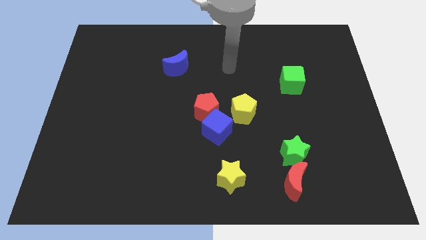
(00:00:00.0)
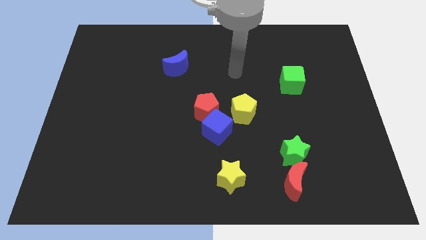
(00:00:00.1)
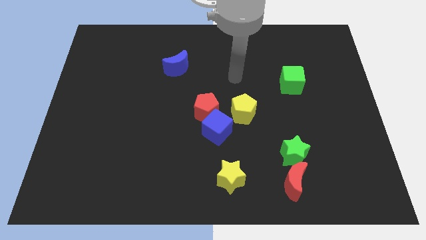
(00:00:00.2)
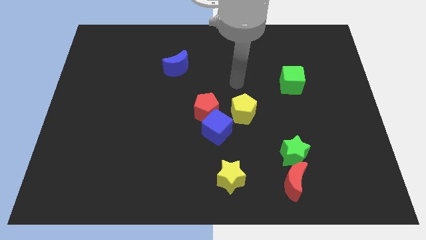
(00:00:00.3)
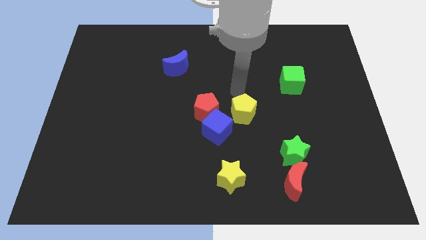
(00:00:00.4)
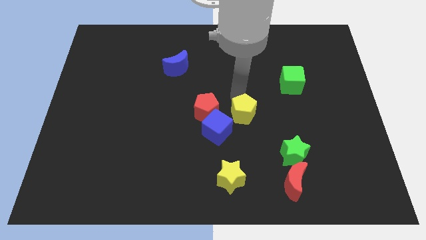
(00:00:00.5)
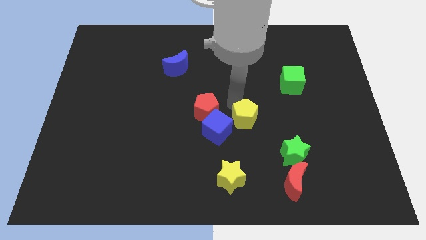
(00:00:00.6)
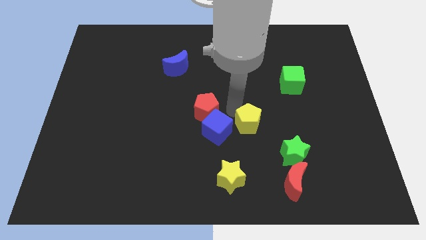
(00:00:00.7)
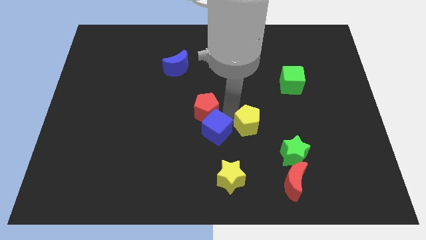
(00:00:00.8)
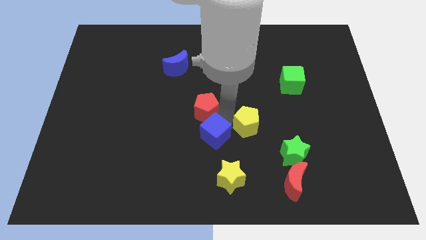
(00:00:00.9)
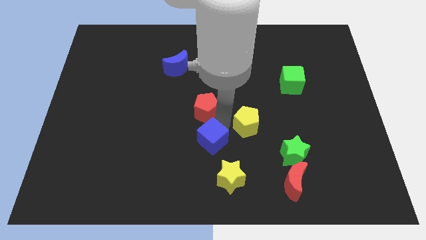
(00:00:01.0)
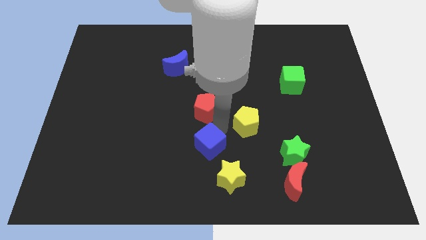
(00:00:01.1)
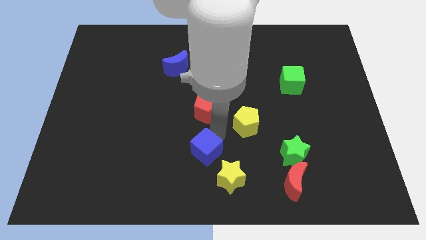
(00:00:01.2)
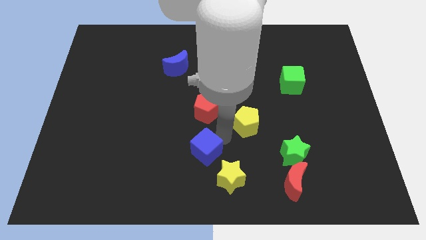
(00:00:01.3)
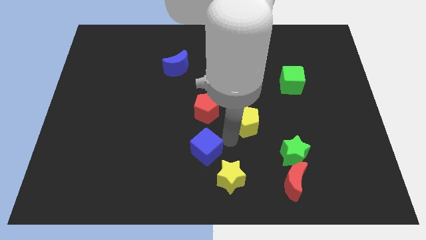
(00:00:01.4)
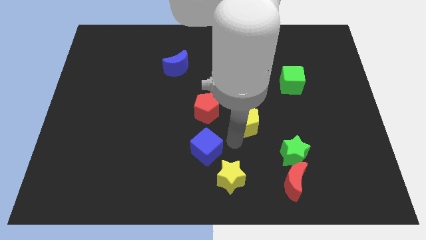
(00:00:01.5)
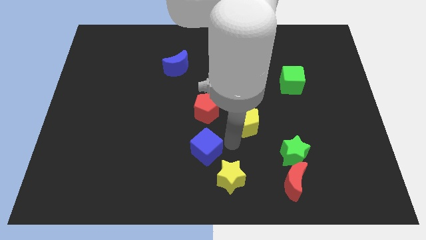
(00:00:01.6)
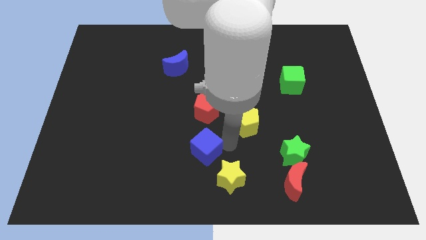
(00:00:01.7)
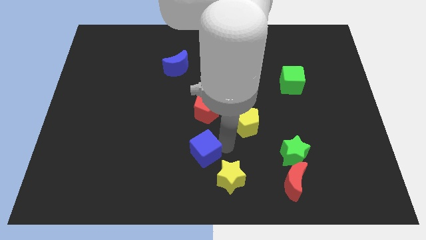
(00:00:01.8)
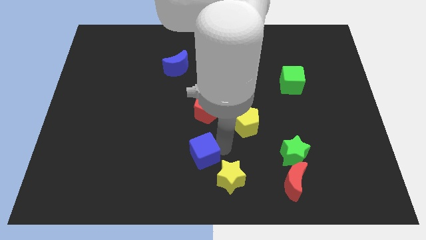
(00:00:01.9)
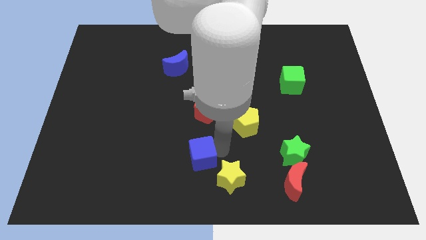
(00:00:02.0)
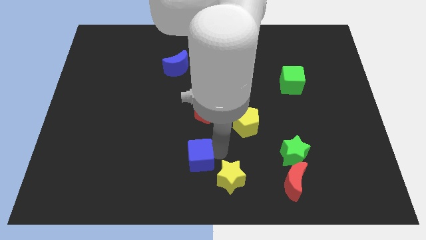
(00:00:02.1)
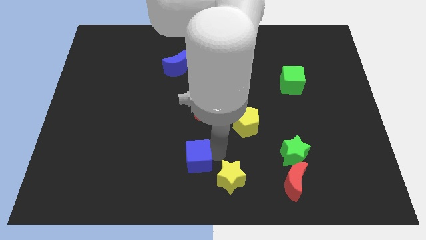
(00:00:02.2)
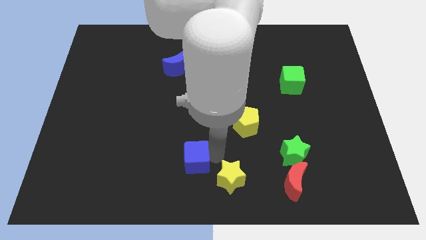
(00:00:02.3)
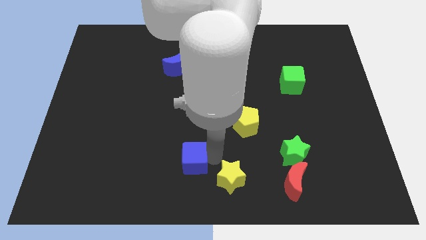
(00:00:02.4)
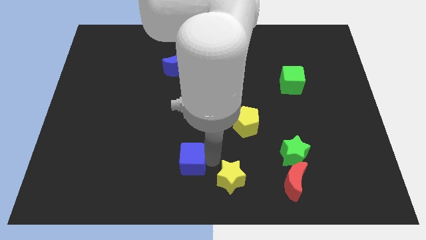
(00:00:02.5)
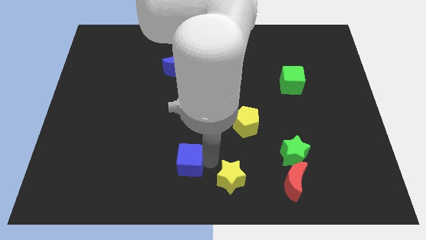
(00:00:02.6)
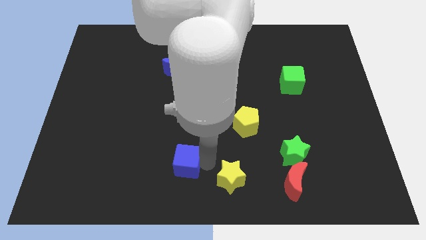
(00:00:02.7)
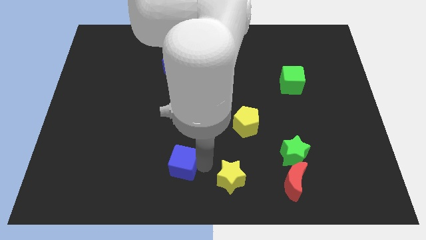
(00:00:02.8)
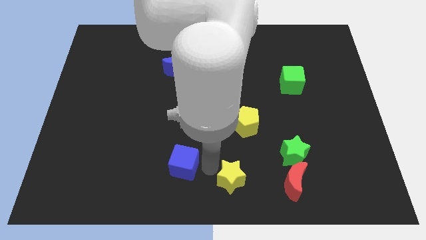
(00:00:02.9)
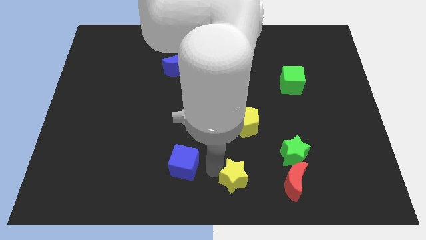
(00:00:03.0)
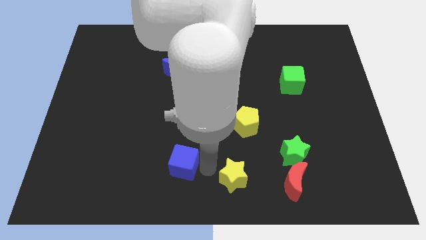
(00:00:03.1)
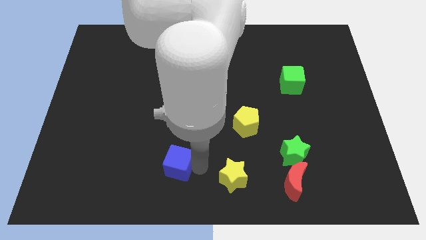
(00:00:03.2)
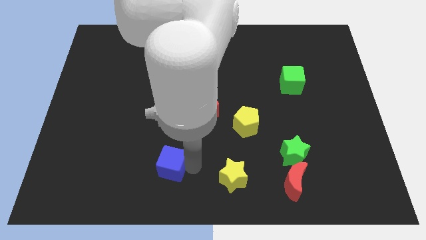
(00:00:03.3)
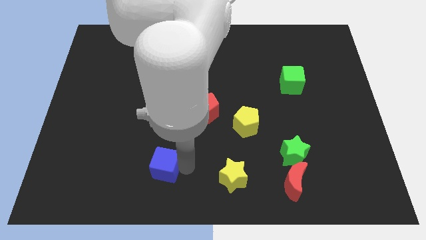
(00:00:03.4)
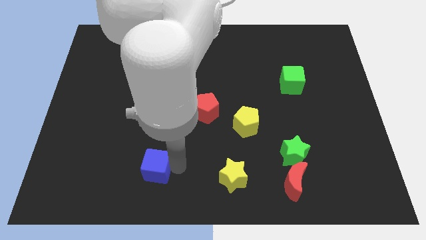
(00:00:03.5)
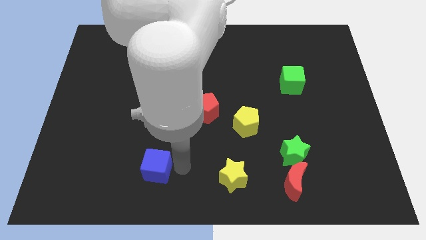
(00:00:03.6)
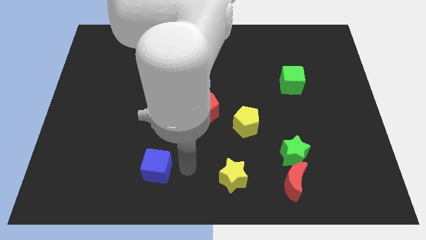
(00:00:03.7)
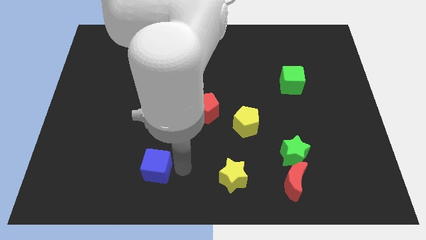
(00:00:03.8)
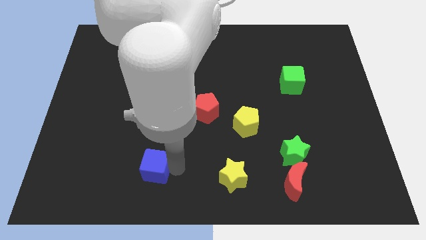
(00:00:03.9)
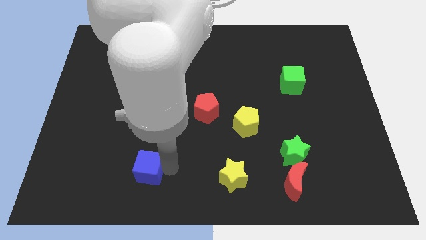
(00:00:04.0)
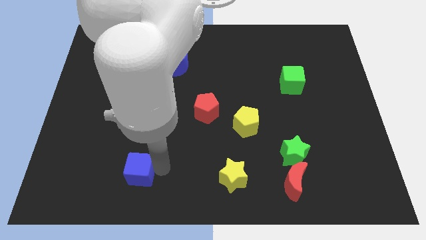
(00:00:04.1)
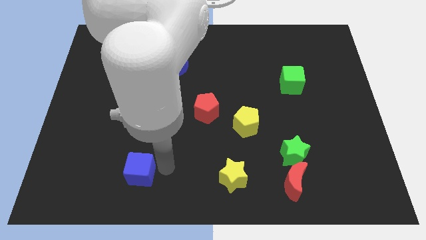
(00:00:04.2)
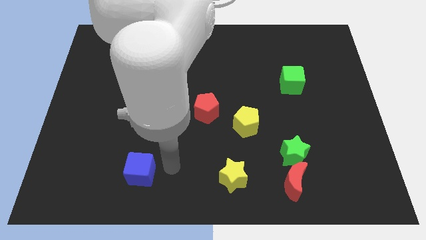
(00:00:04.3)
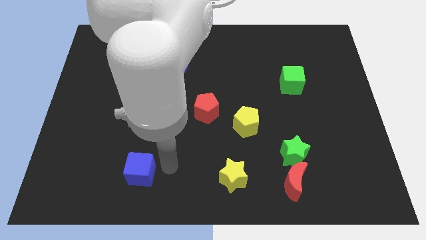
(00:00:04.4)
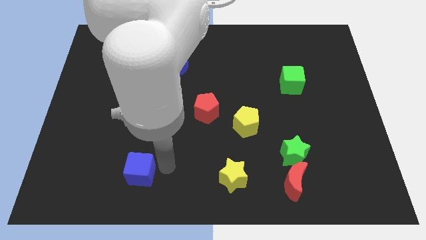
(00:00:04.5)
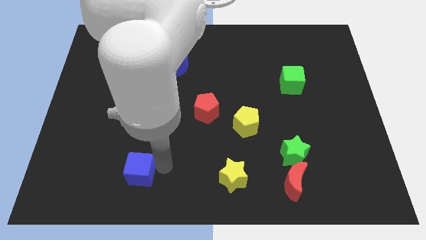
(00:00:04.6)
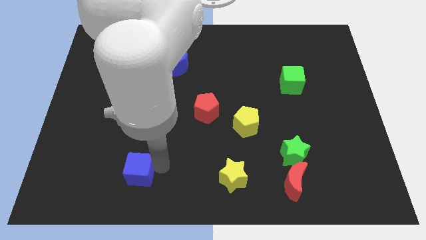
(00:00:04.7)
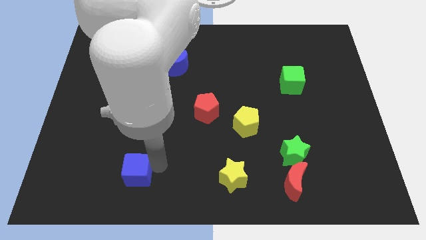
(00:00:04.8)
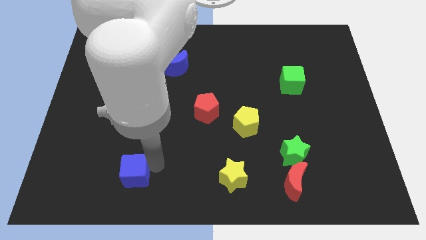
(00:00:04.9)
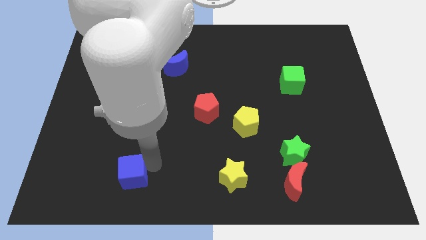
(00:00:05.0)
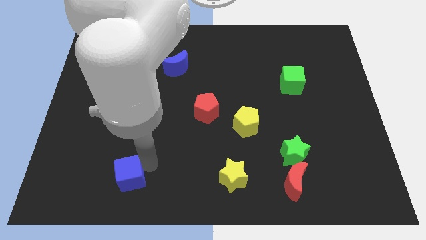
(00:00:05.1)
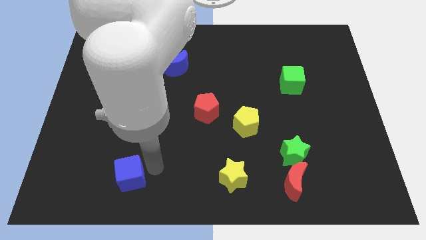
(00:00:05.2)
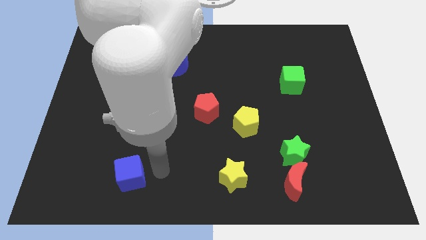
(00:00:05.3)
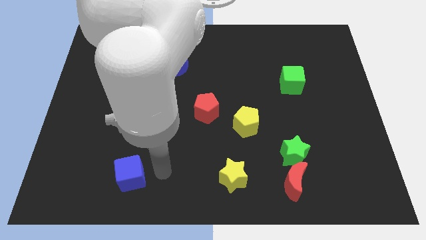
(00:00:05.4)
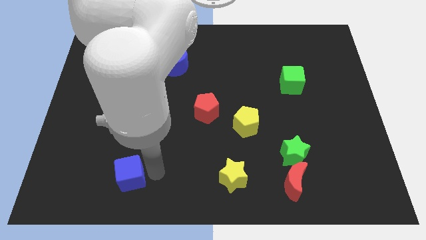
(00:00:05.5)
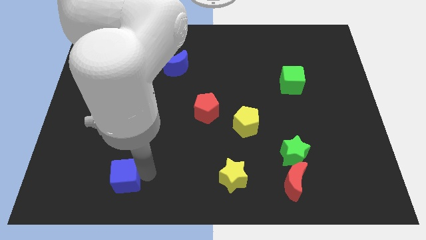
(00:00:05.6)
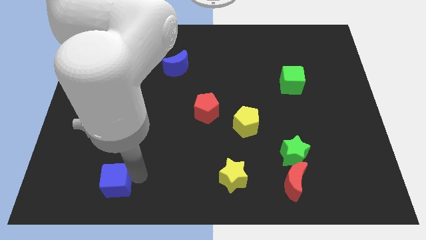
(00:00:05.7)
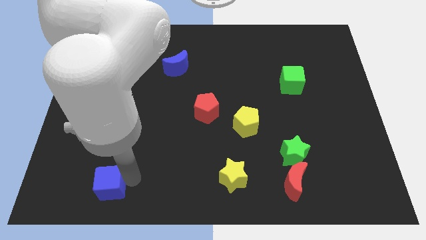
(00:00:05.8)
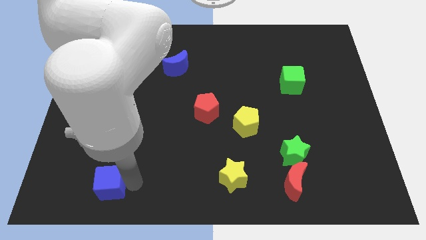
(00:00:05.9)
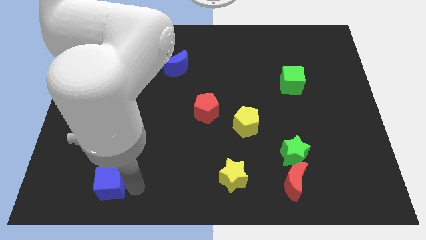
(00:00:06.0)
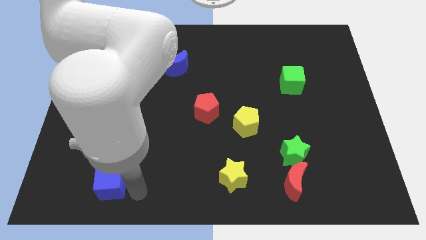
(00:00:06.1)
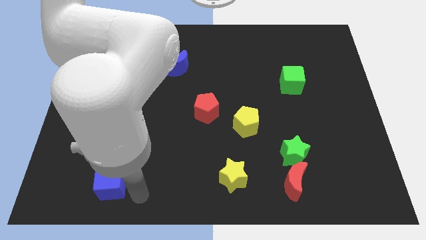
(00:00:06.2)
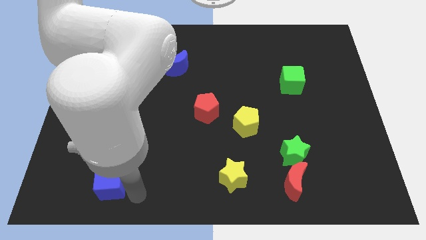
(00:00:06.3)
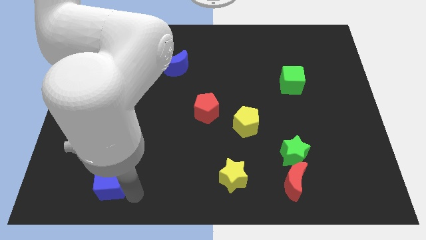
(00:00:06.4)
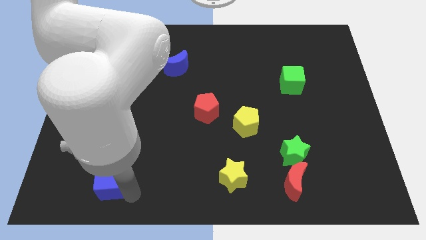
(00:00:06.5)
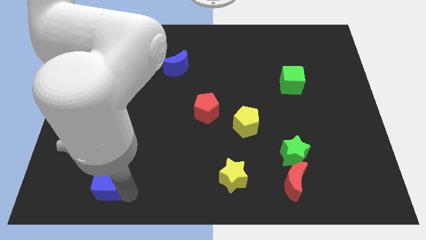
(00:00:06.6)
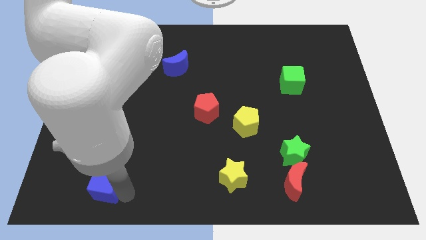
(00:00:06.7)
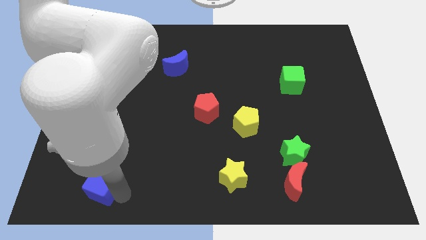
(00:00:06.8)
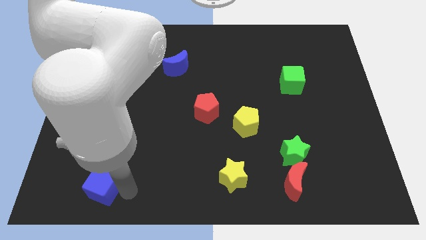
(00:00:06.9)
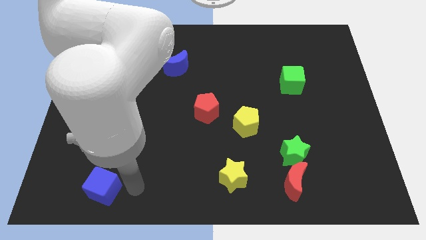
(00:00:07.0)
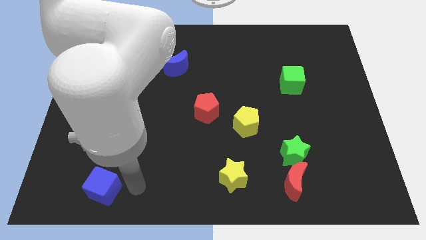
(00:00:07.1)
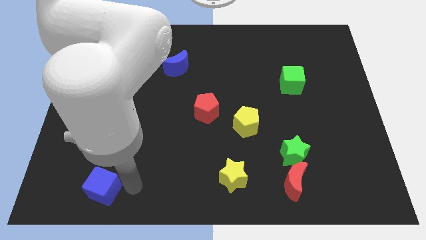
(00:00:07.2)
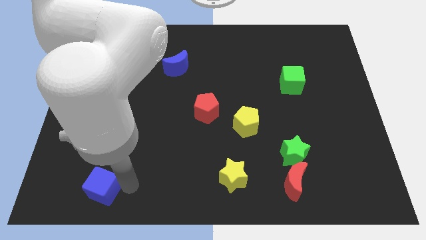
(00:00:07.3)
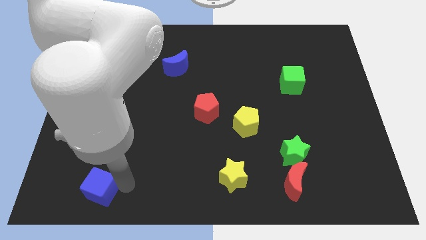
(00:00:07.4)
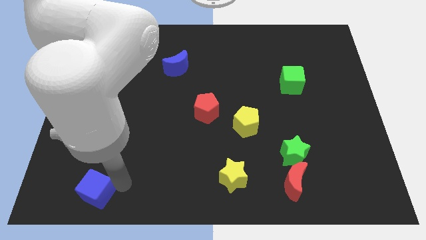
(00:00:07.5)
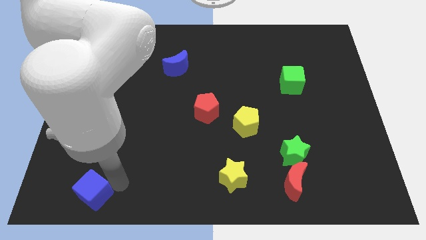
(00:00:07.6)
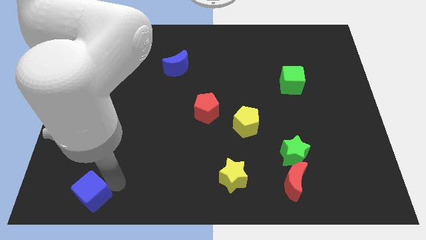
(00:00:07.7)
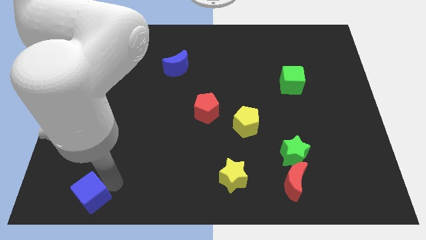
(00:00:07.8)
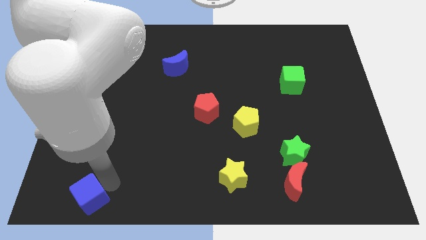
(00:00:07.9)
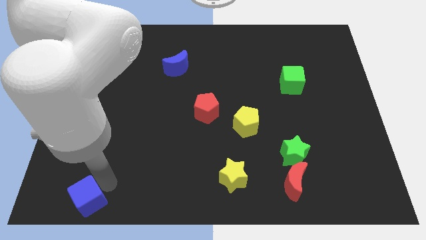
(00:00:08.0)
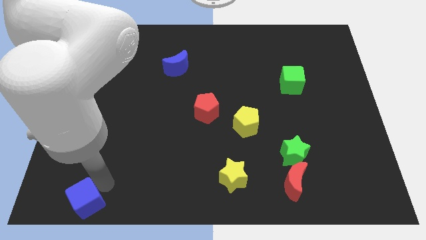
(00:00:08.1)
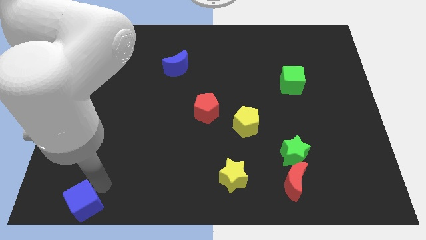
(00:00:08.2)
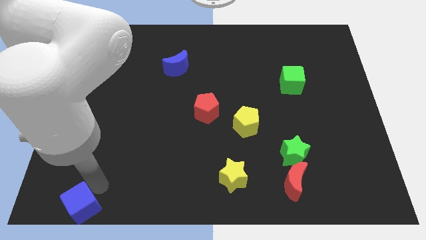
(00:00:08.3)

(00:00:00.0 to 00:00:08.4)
move the blue cube to the lower left corner
